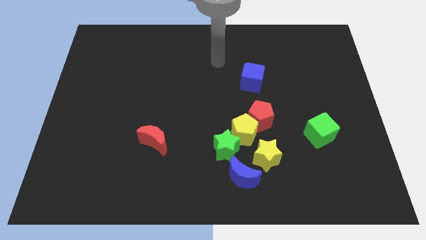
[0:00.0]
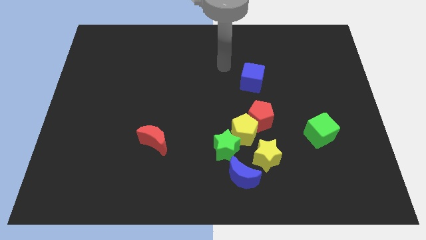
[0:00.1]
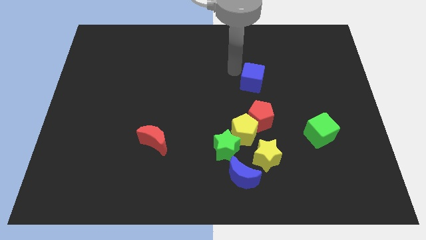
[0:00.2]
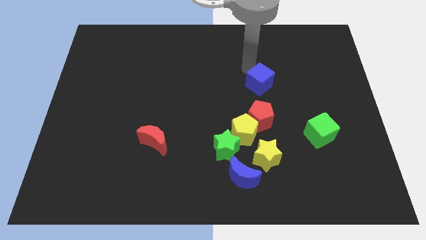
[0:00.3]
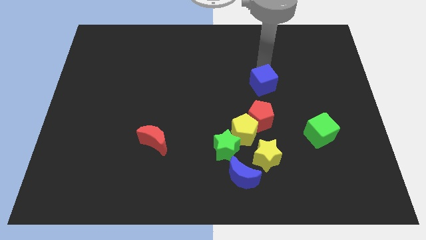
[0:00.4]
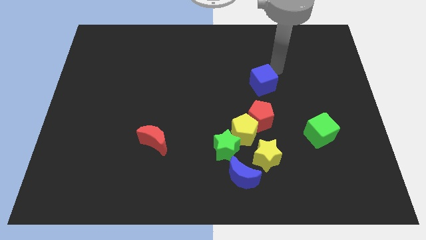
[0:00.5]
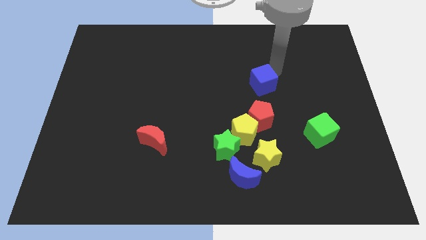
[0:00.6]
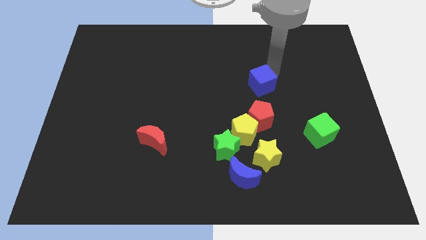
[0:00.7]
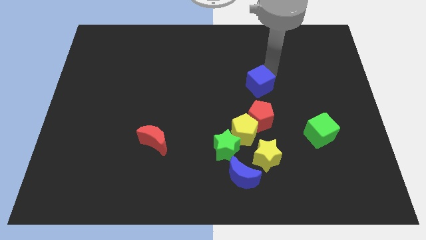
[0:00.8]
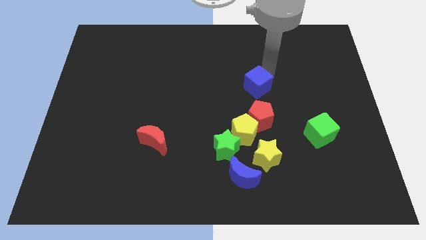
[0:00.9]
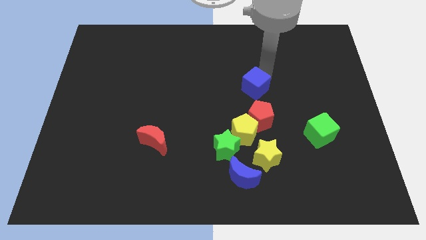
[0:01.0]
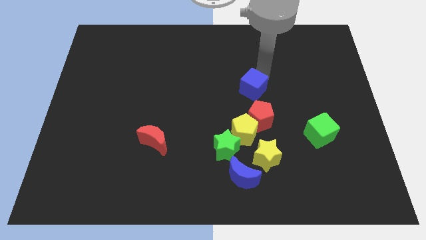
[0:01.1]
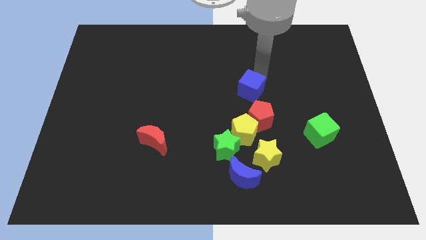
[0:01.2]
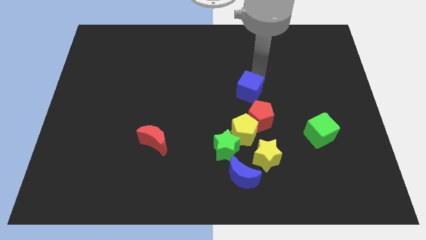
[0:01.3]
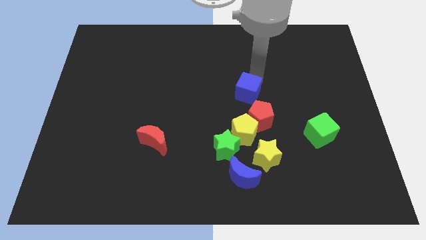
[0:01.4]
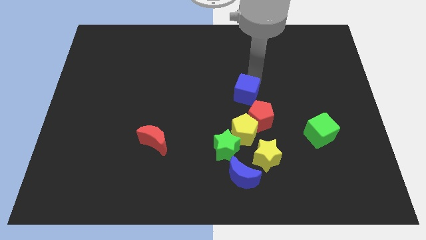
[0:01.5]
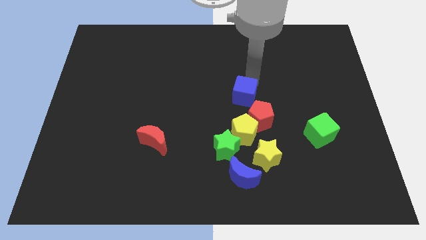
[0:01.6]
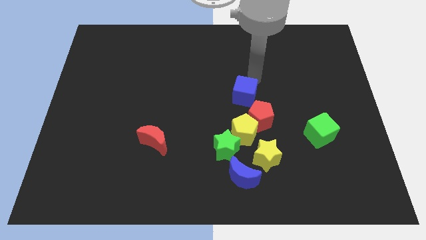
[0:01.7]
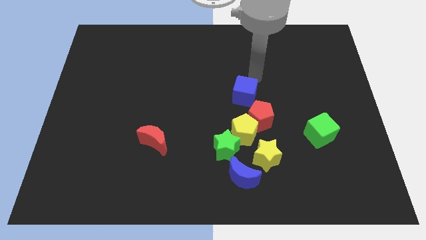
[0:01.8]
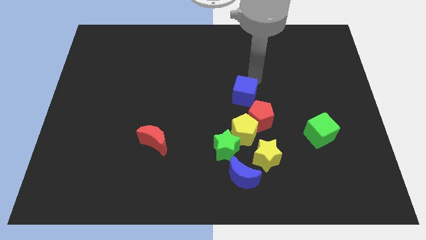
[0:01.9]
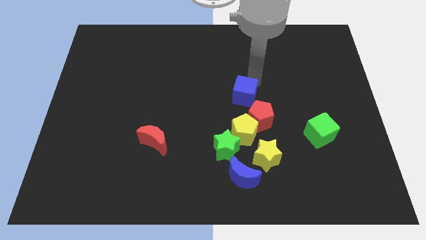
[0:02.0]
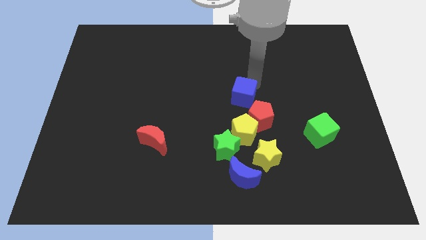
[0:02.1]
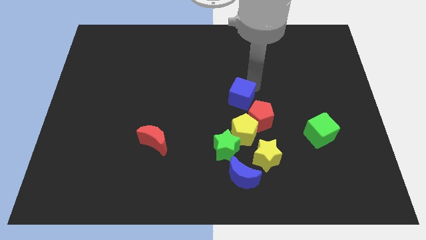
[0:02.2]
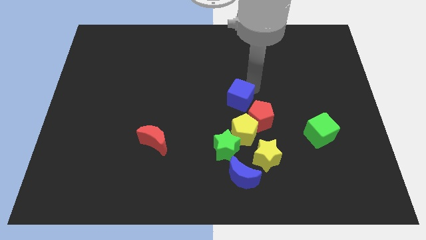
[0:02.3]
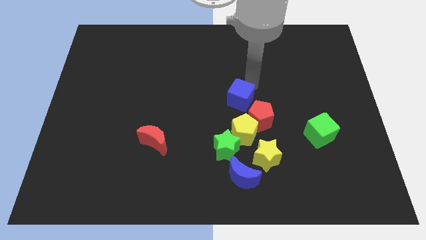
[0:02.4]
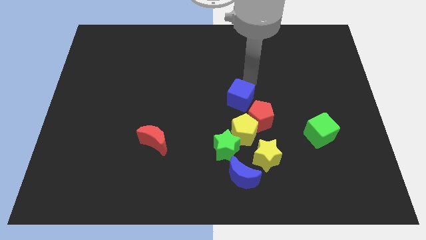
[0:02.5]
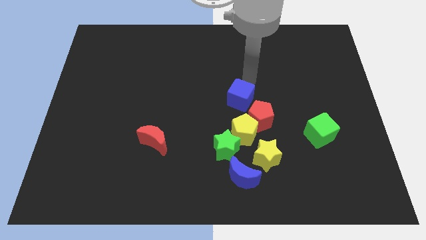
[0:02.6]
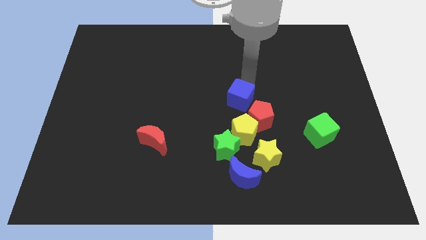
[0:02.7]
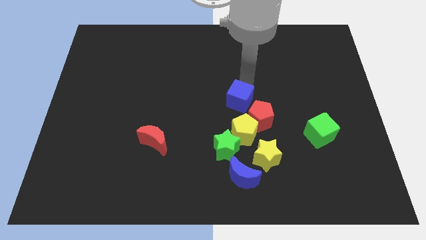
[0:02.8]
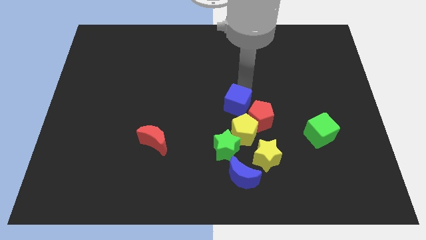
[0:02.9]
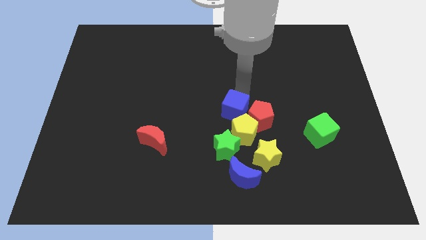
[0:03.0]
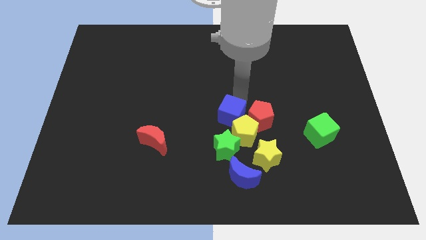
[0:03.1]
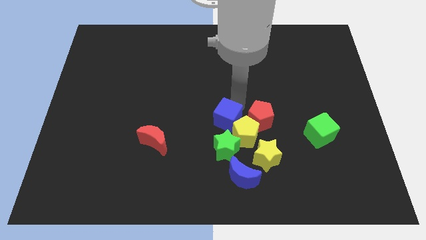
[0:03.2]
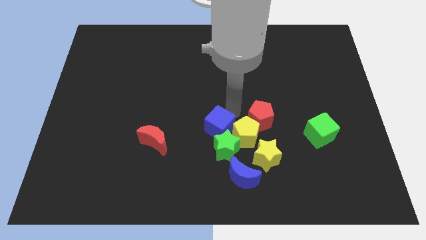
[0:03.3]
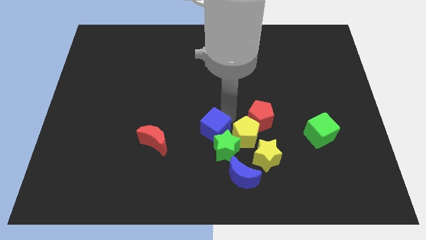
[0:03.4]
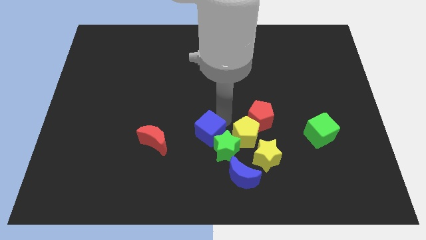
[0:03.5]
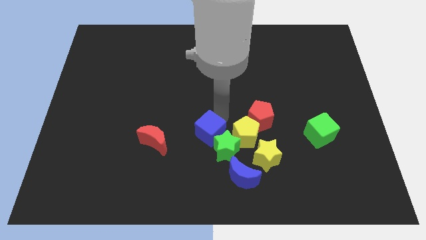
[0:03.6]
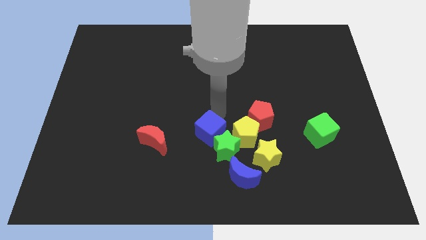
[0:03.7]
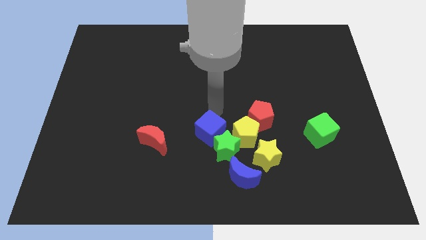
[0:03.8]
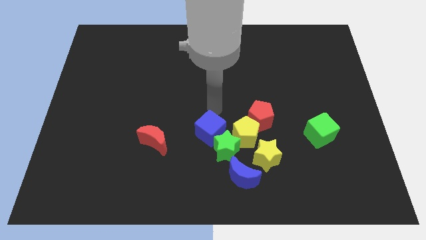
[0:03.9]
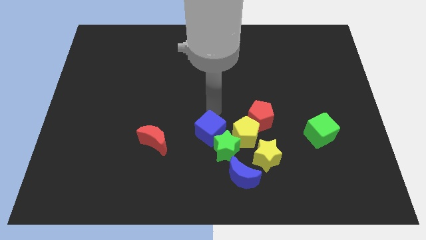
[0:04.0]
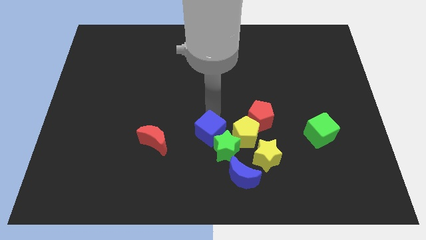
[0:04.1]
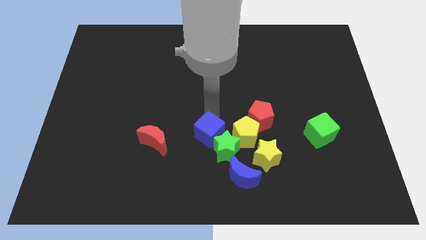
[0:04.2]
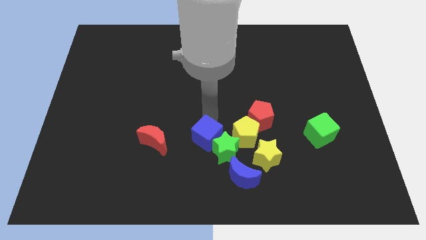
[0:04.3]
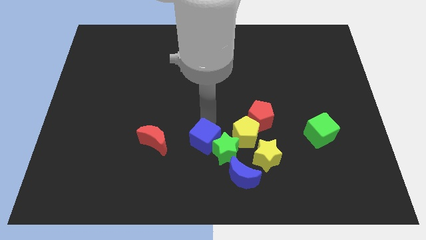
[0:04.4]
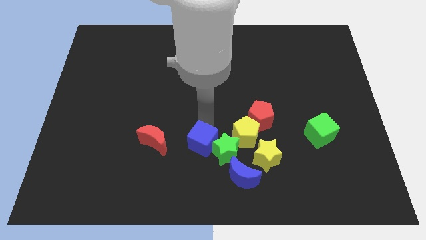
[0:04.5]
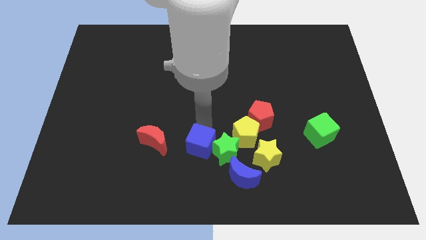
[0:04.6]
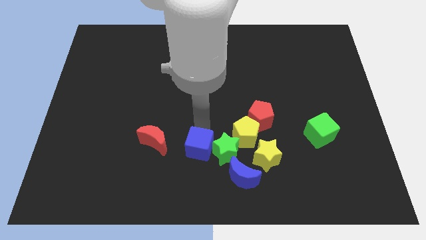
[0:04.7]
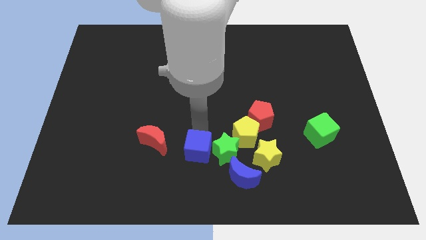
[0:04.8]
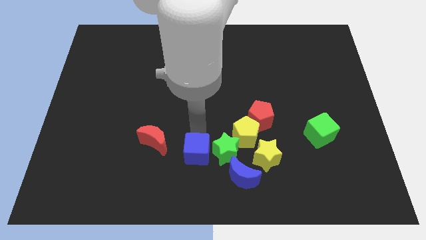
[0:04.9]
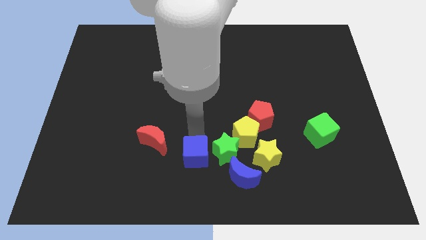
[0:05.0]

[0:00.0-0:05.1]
move the blue cube to the bottom side

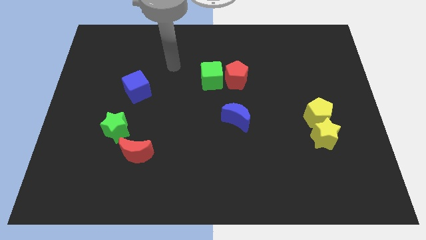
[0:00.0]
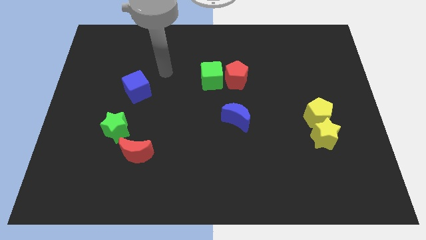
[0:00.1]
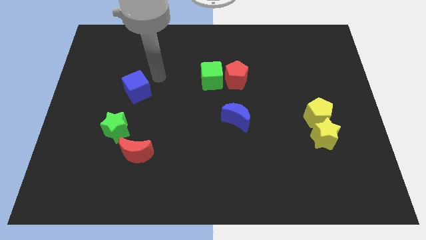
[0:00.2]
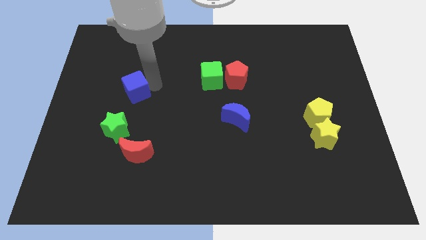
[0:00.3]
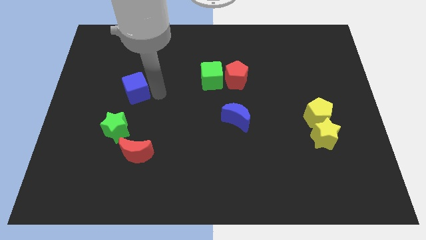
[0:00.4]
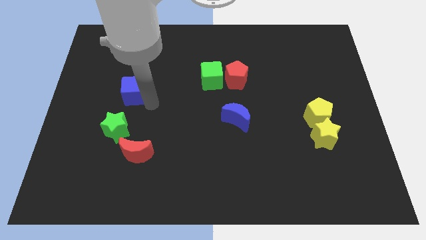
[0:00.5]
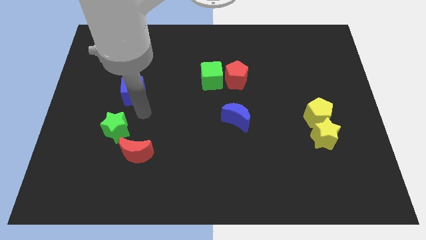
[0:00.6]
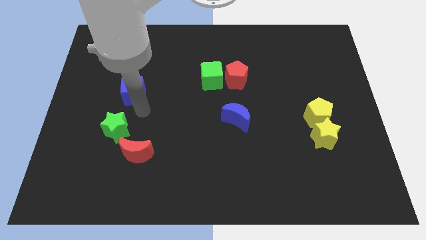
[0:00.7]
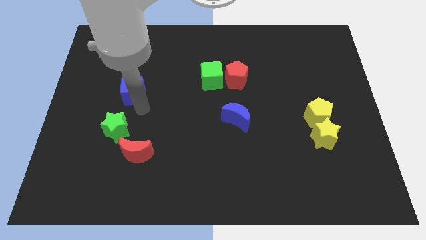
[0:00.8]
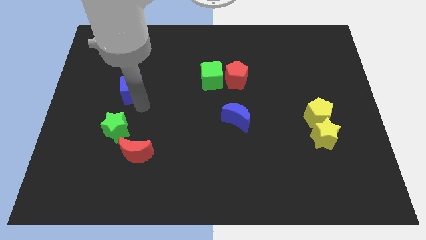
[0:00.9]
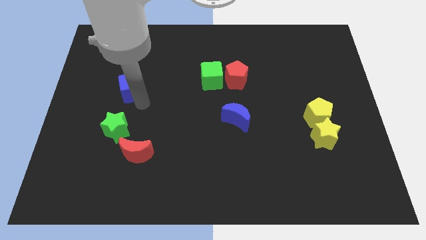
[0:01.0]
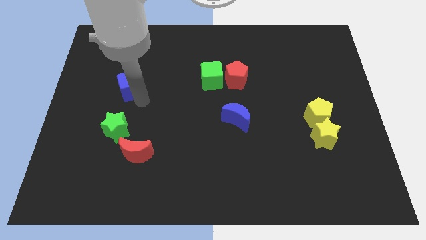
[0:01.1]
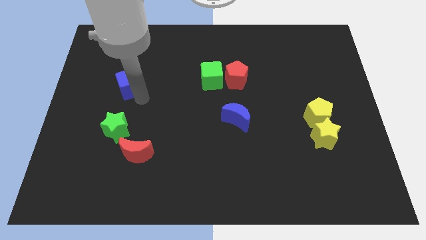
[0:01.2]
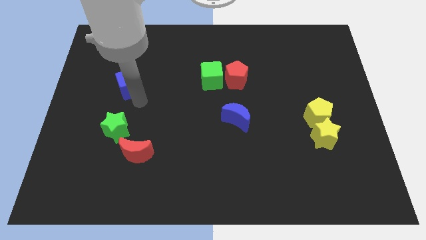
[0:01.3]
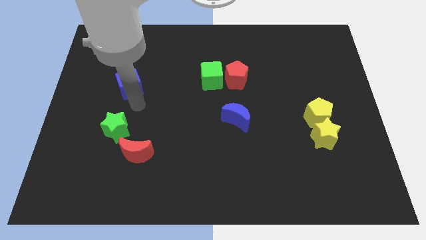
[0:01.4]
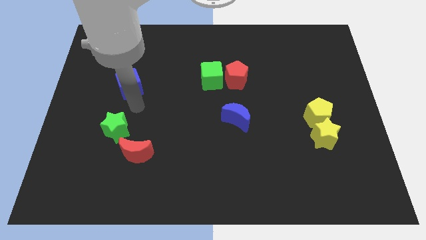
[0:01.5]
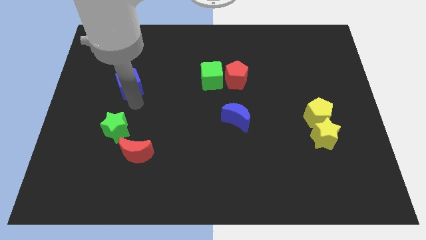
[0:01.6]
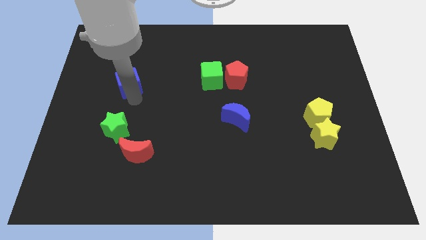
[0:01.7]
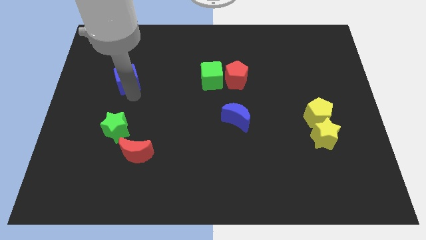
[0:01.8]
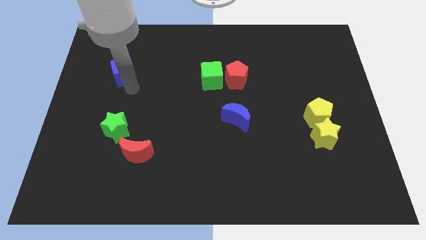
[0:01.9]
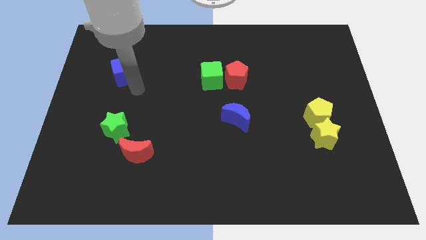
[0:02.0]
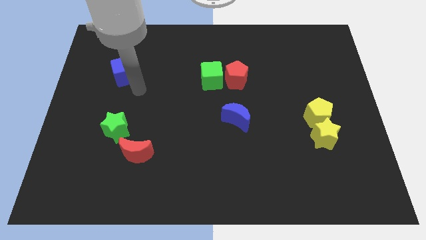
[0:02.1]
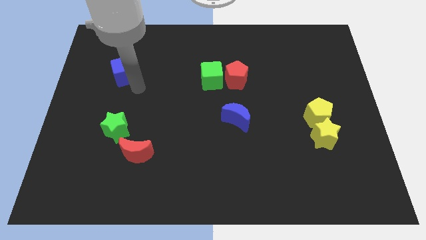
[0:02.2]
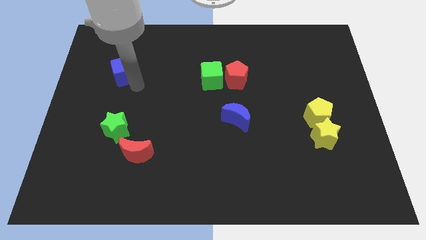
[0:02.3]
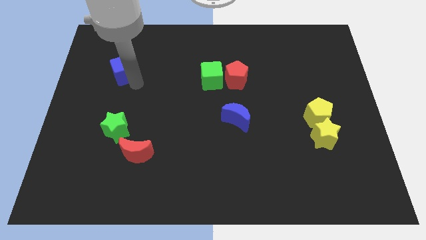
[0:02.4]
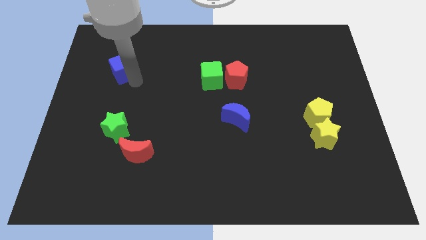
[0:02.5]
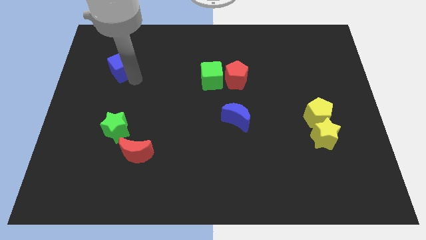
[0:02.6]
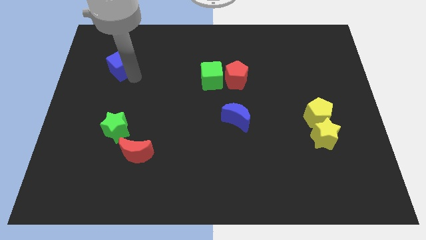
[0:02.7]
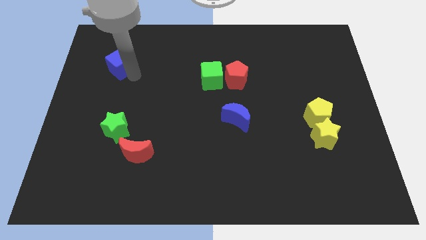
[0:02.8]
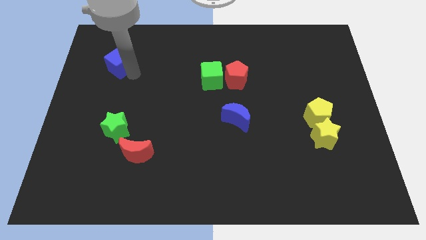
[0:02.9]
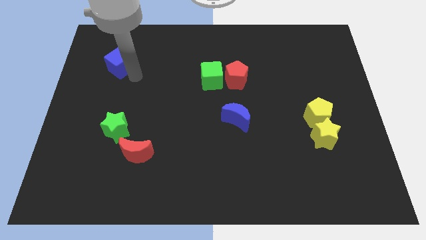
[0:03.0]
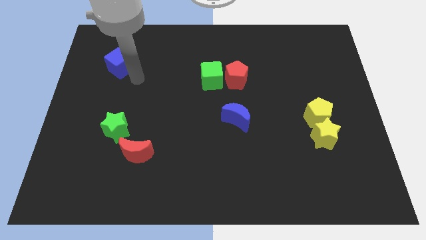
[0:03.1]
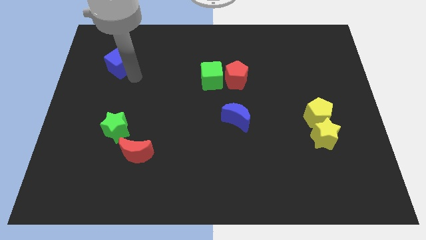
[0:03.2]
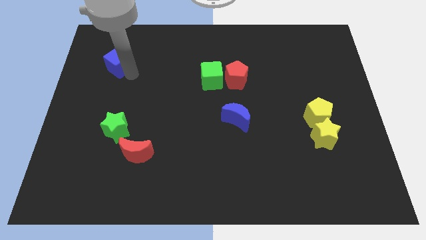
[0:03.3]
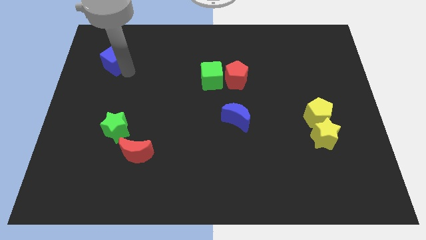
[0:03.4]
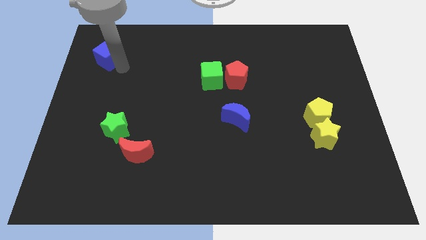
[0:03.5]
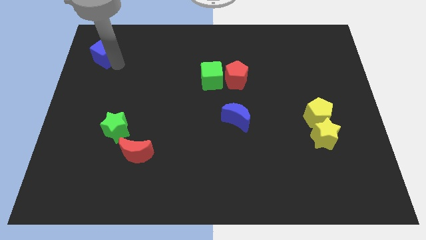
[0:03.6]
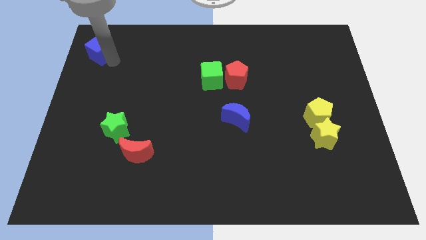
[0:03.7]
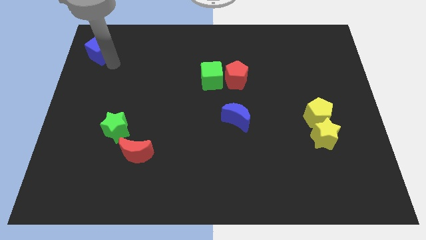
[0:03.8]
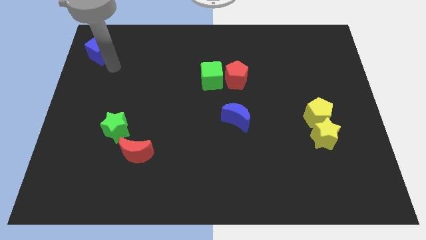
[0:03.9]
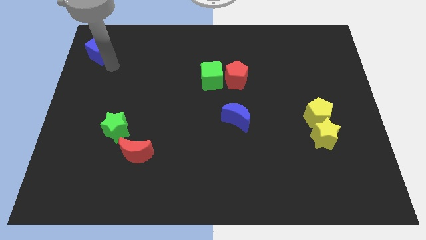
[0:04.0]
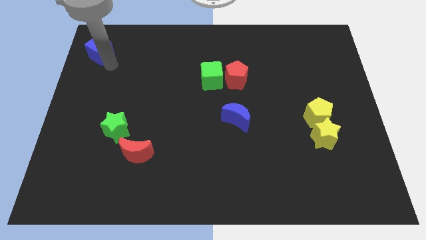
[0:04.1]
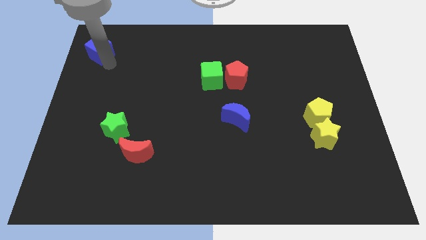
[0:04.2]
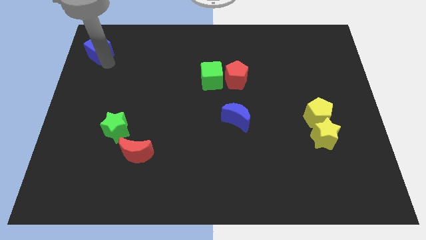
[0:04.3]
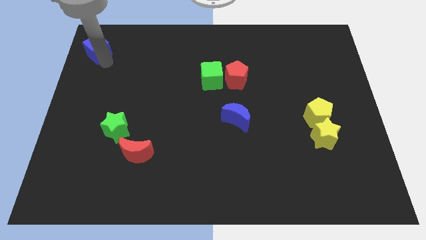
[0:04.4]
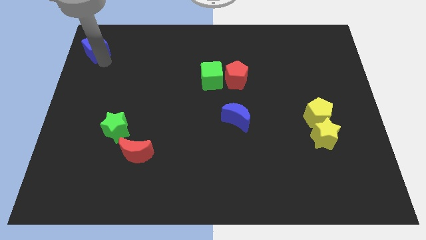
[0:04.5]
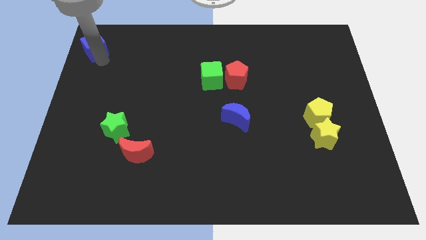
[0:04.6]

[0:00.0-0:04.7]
put the blue cube to the top left
